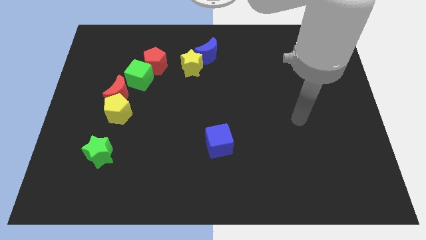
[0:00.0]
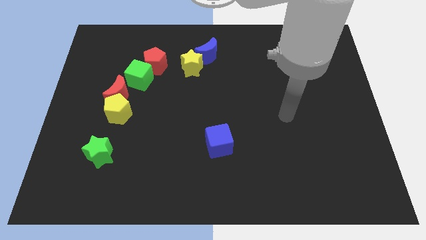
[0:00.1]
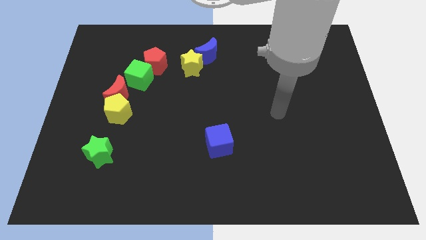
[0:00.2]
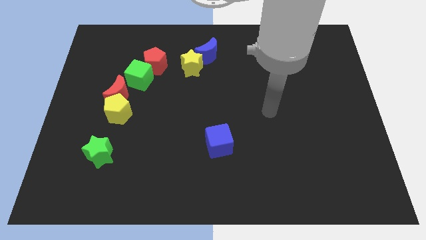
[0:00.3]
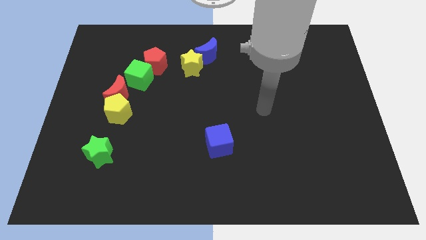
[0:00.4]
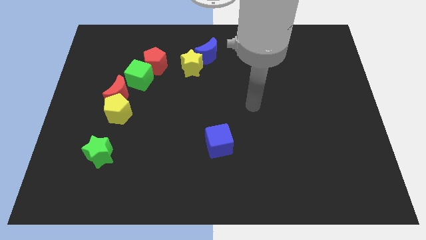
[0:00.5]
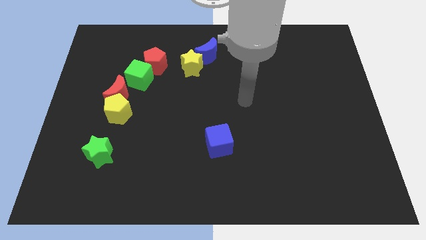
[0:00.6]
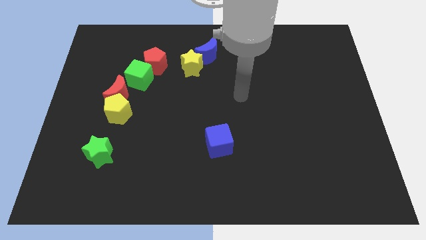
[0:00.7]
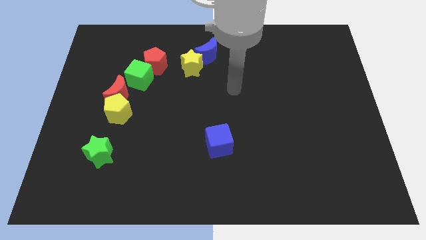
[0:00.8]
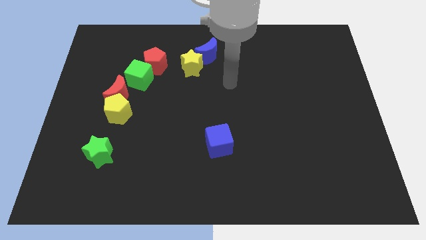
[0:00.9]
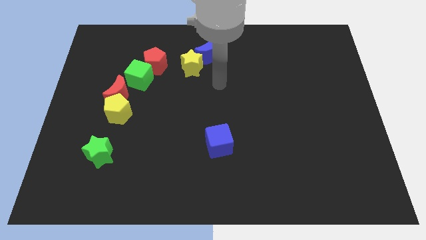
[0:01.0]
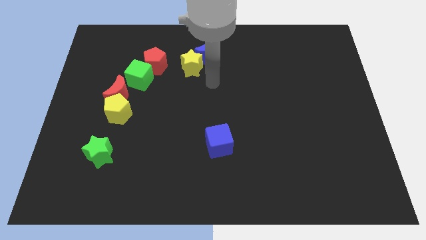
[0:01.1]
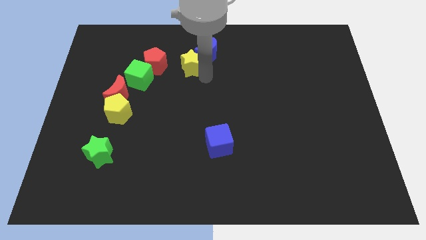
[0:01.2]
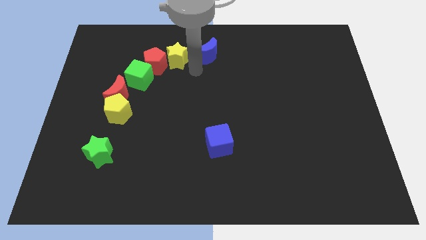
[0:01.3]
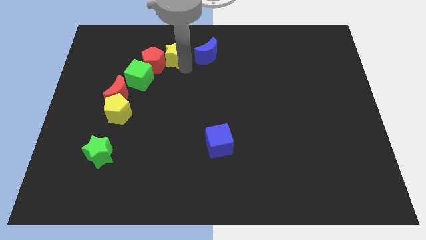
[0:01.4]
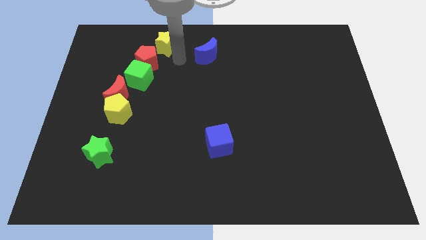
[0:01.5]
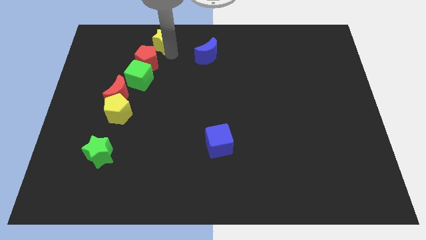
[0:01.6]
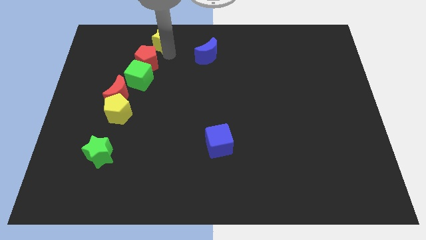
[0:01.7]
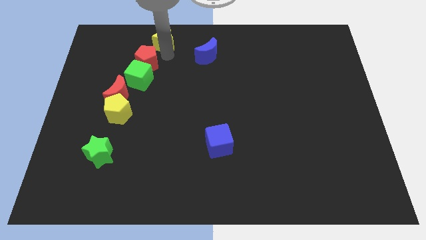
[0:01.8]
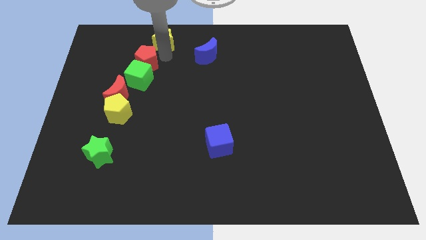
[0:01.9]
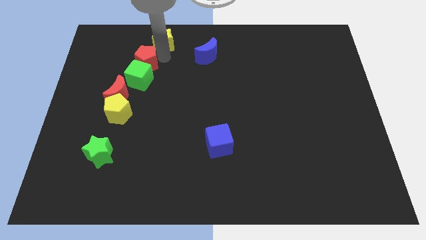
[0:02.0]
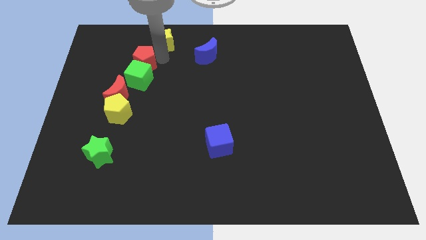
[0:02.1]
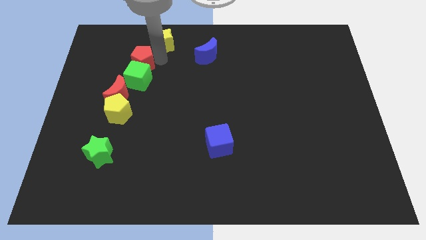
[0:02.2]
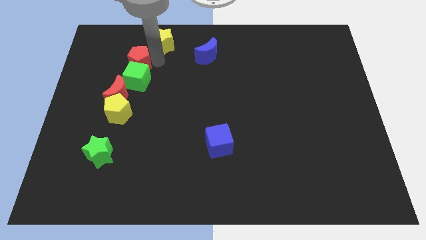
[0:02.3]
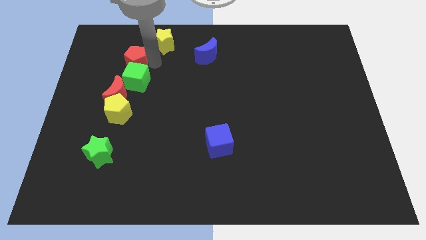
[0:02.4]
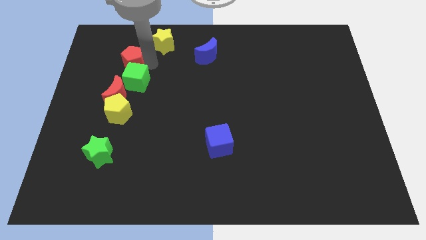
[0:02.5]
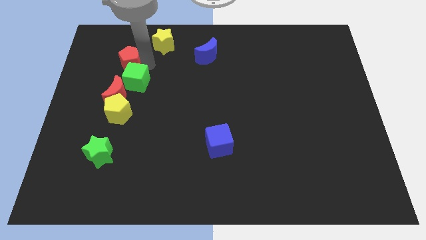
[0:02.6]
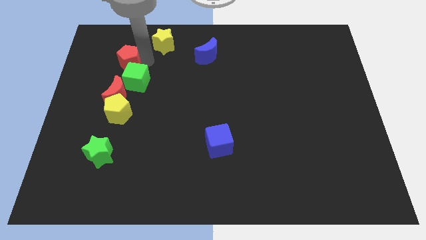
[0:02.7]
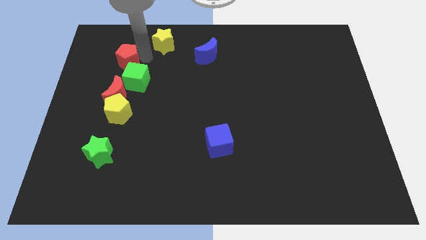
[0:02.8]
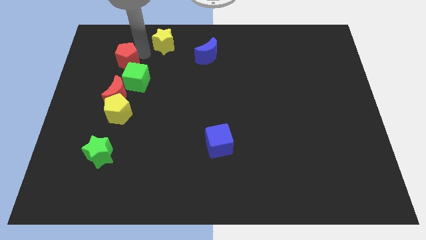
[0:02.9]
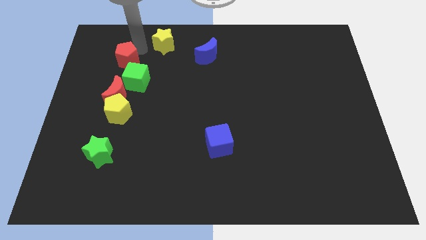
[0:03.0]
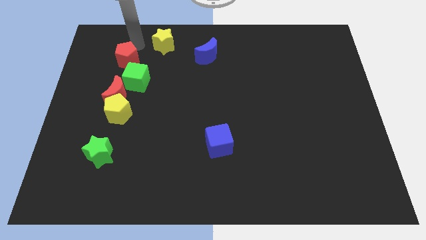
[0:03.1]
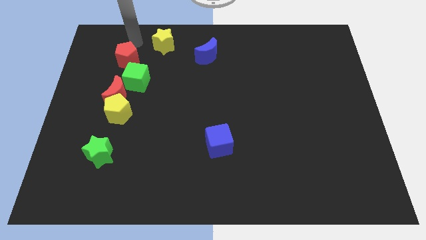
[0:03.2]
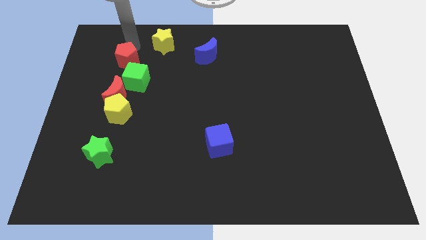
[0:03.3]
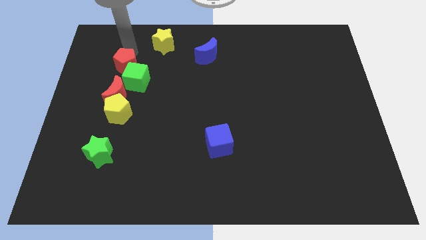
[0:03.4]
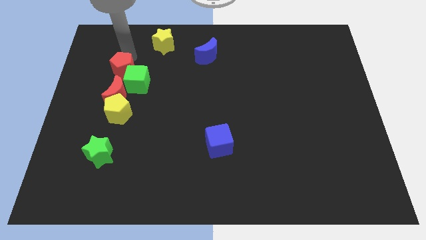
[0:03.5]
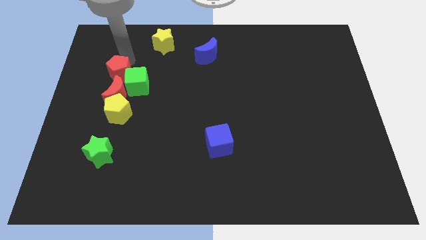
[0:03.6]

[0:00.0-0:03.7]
slightly slide the red pentagon down and left diagonally

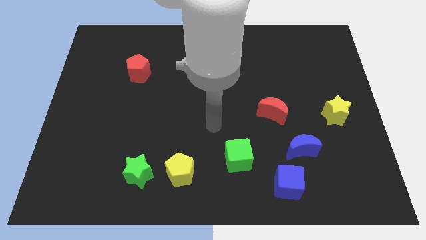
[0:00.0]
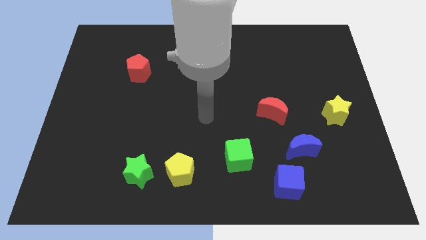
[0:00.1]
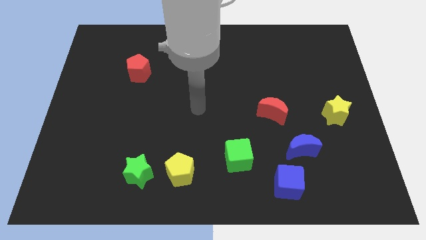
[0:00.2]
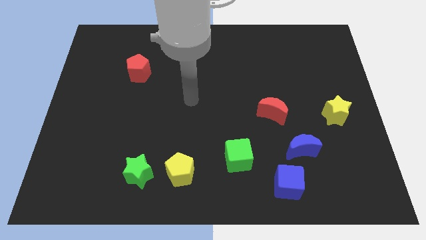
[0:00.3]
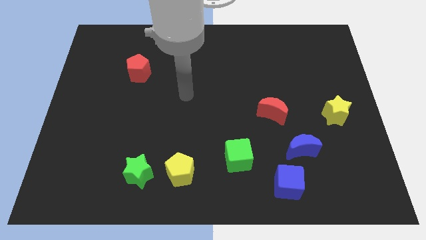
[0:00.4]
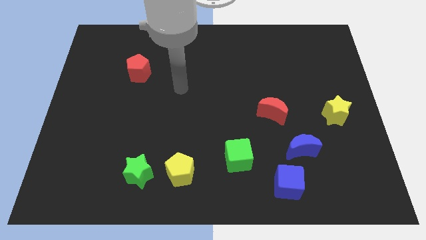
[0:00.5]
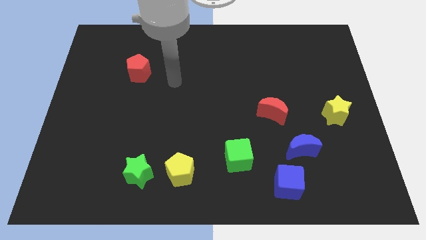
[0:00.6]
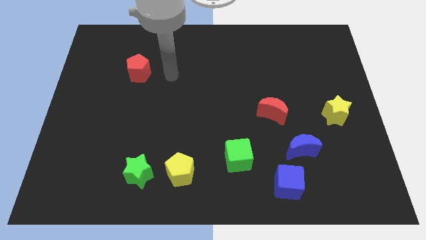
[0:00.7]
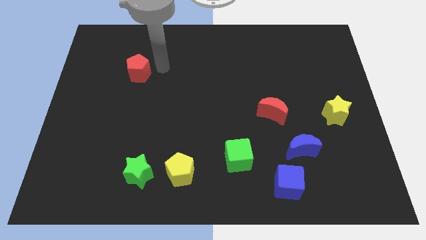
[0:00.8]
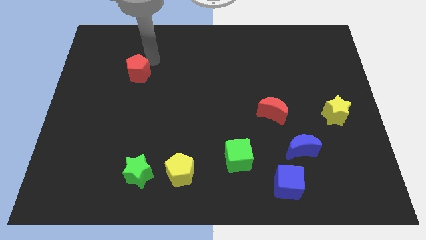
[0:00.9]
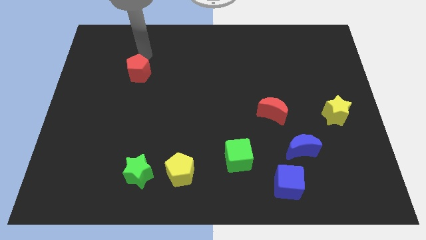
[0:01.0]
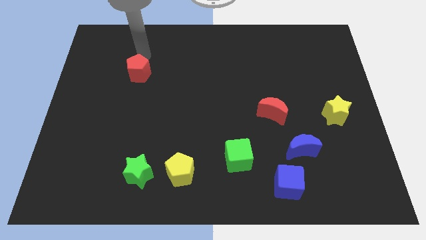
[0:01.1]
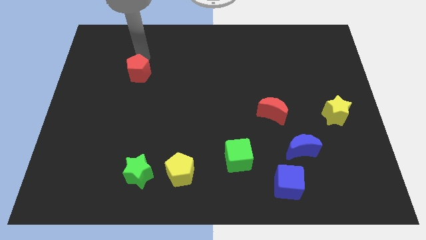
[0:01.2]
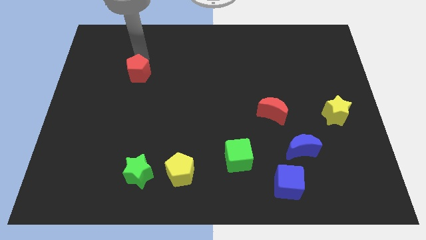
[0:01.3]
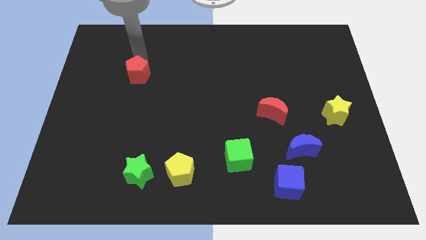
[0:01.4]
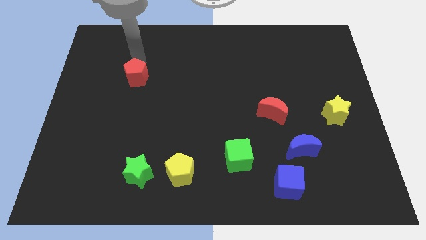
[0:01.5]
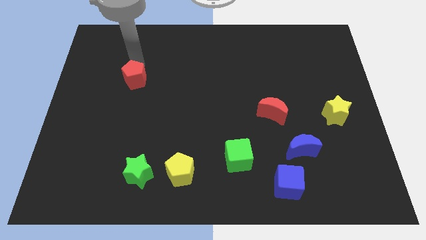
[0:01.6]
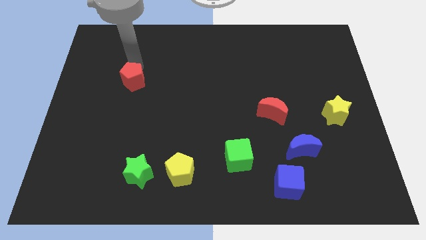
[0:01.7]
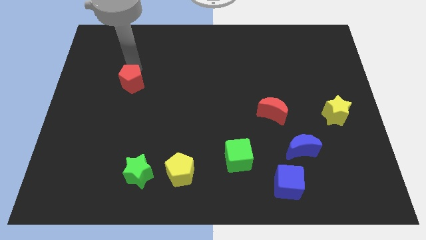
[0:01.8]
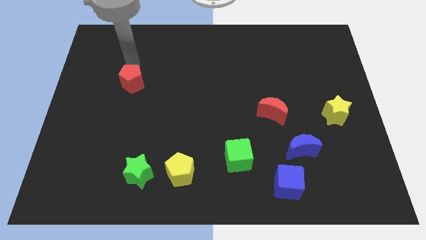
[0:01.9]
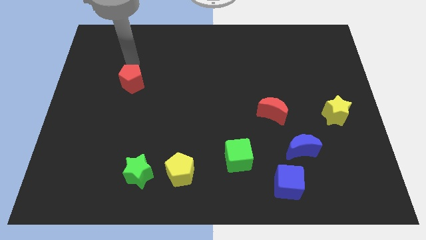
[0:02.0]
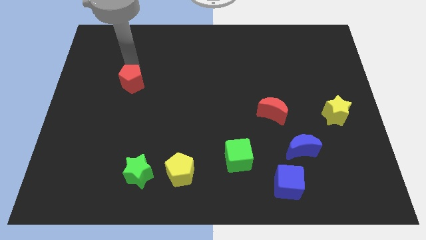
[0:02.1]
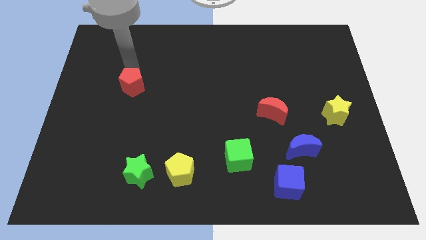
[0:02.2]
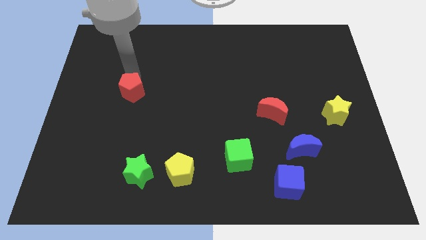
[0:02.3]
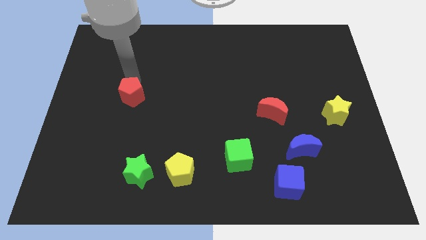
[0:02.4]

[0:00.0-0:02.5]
slightly push the red pentagon down

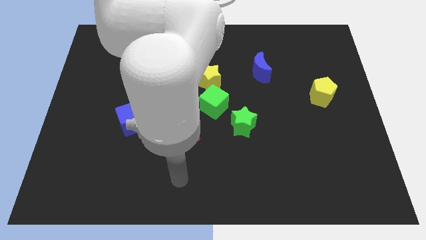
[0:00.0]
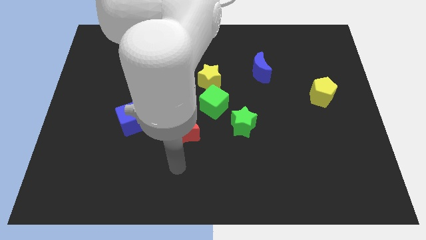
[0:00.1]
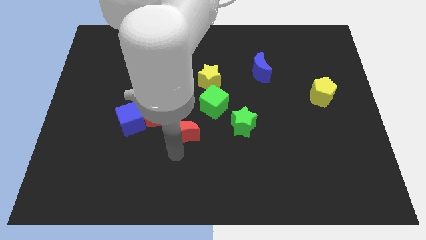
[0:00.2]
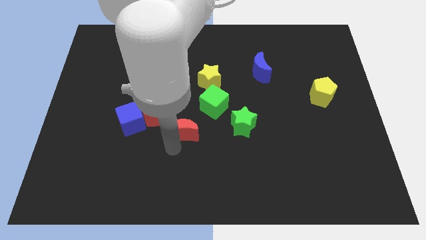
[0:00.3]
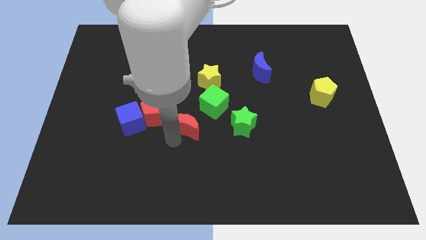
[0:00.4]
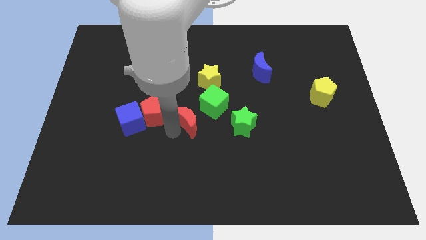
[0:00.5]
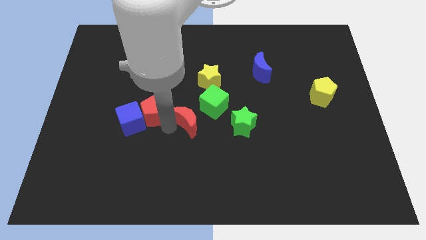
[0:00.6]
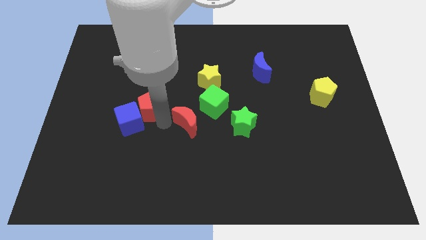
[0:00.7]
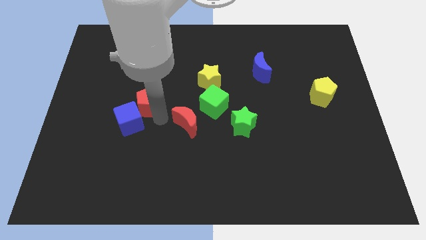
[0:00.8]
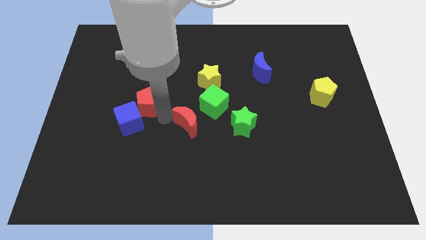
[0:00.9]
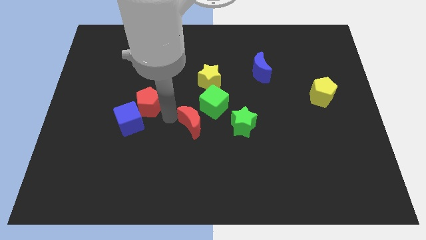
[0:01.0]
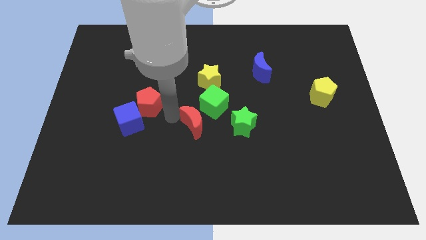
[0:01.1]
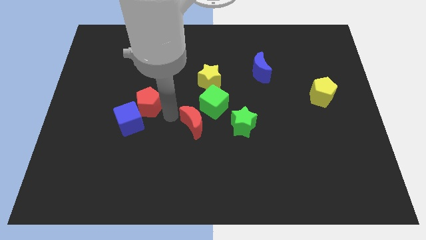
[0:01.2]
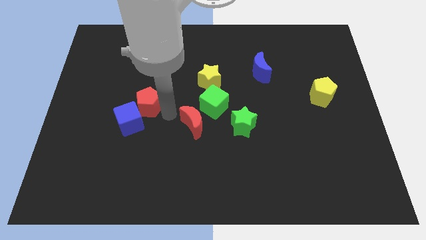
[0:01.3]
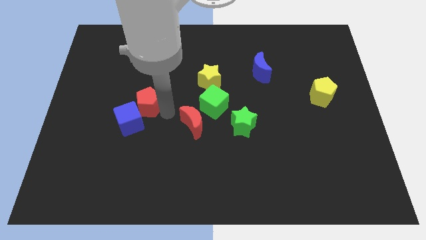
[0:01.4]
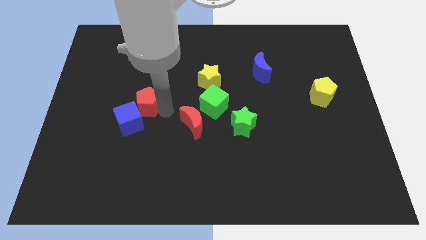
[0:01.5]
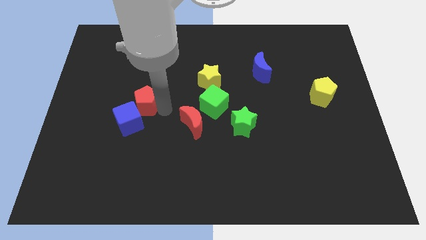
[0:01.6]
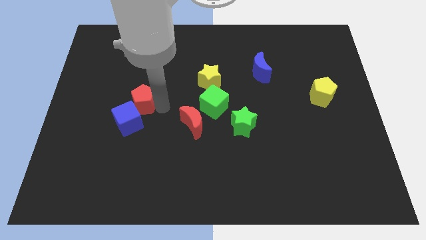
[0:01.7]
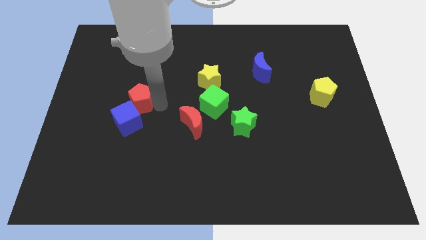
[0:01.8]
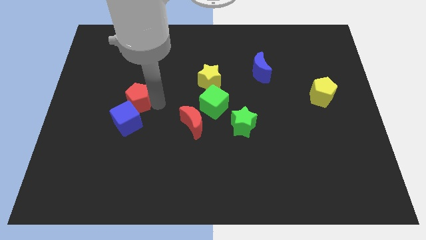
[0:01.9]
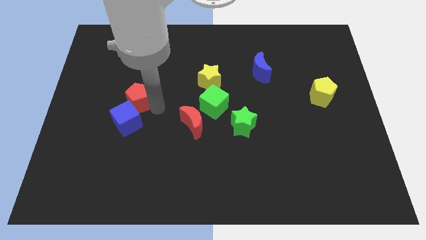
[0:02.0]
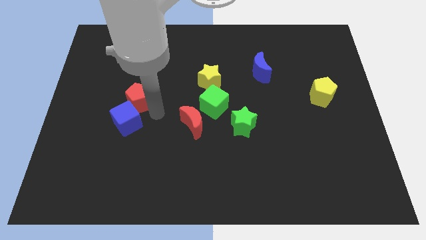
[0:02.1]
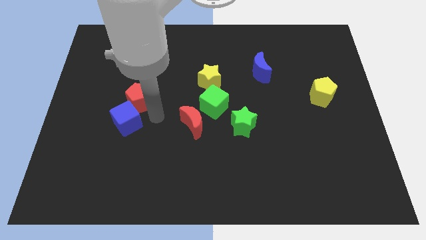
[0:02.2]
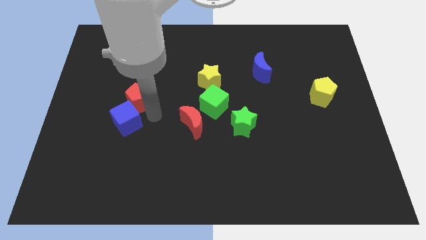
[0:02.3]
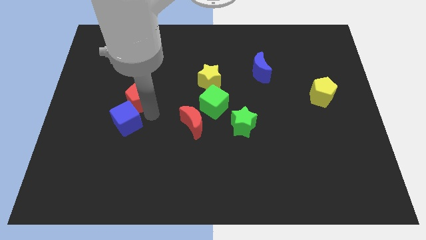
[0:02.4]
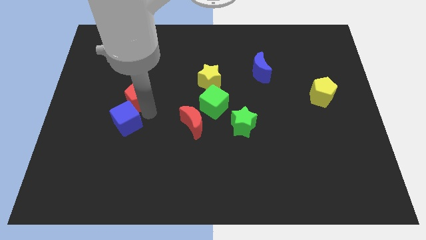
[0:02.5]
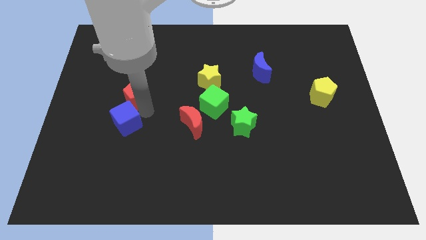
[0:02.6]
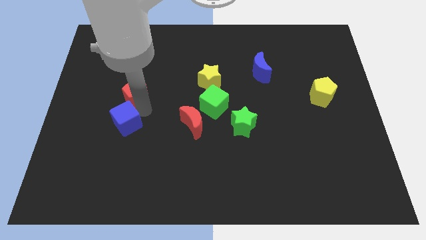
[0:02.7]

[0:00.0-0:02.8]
push the red pentagon diagonally up and to the left slightly
